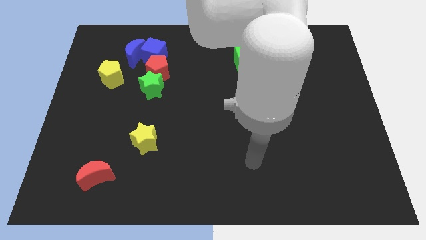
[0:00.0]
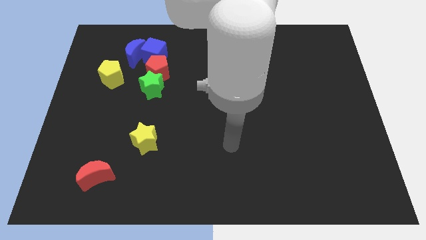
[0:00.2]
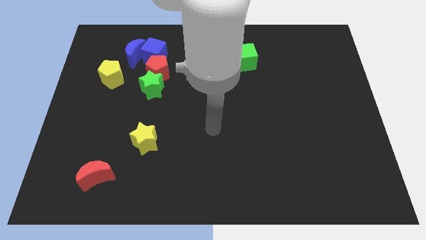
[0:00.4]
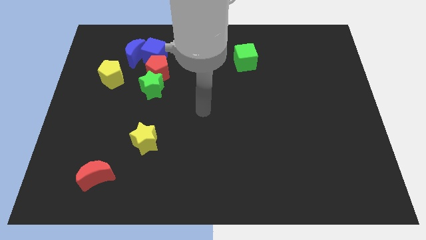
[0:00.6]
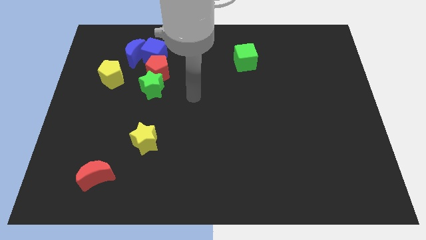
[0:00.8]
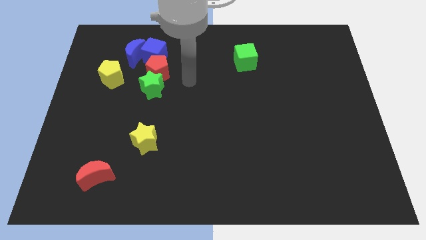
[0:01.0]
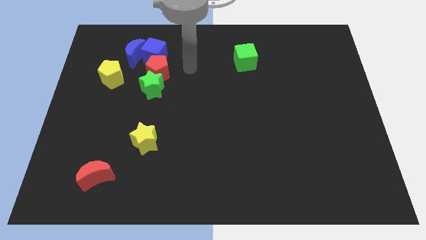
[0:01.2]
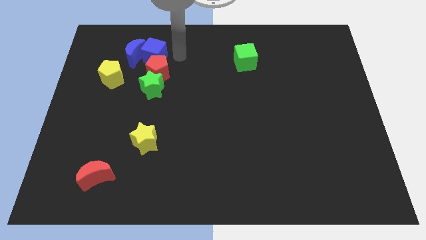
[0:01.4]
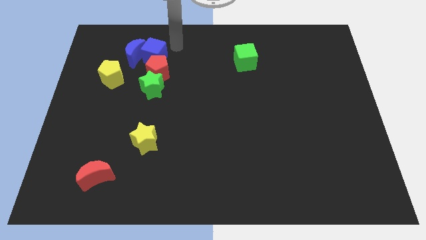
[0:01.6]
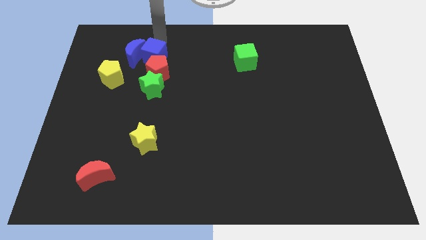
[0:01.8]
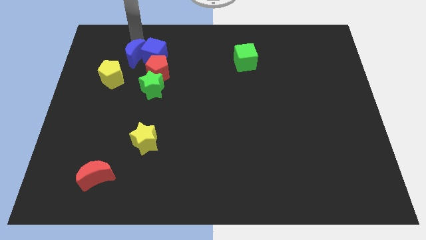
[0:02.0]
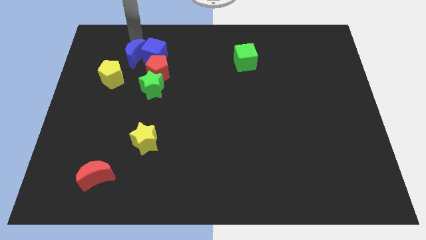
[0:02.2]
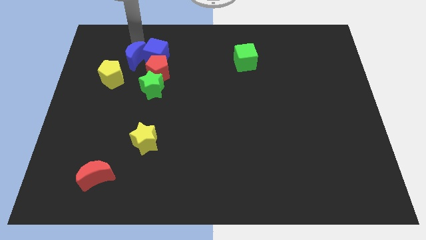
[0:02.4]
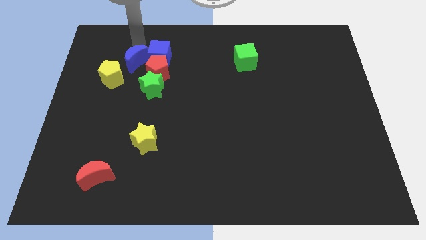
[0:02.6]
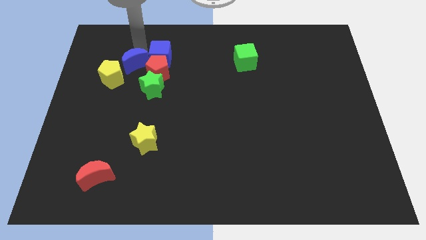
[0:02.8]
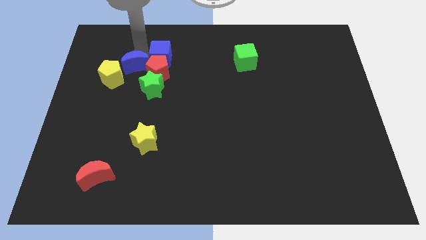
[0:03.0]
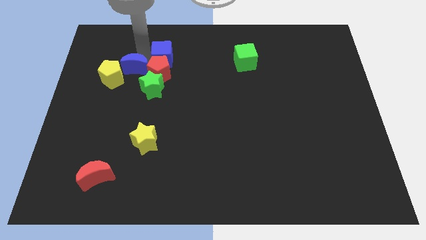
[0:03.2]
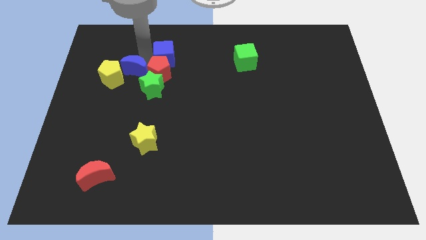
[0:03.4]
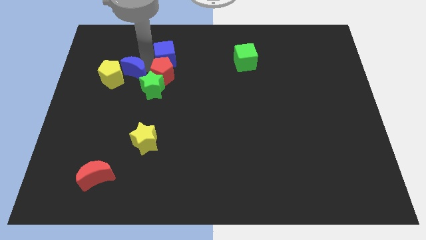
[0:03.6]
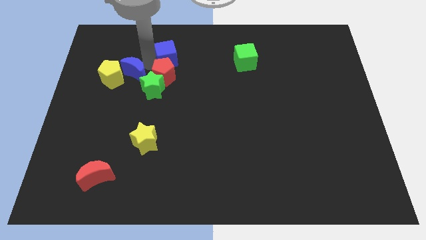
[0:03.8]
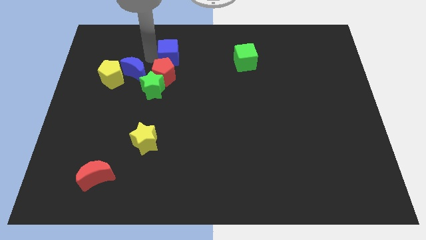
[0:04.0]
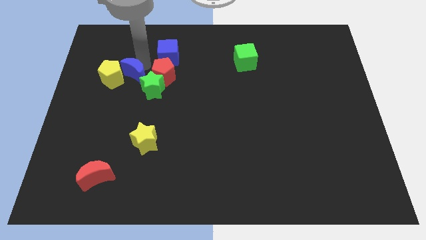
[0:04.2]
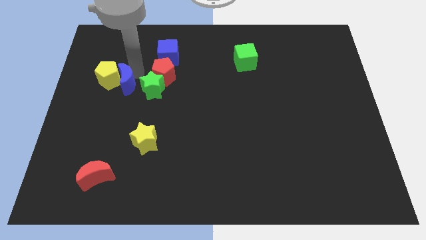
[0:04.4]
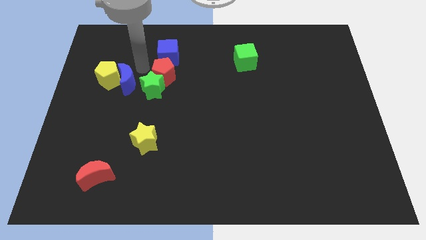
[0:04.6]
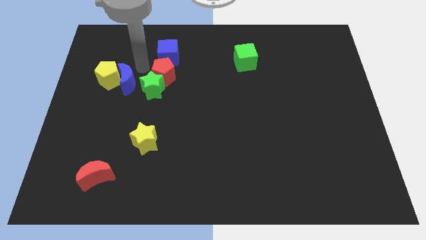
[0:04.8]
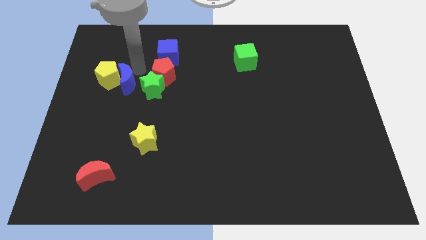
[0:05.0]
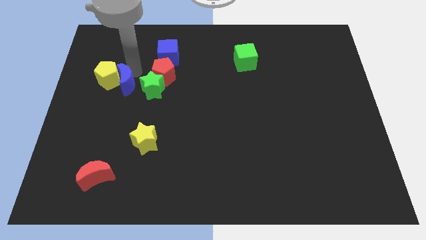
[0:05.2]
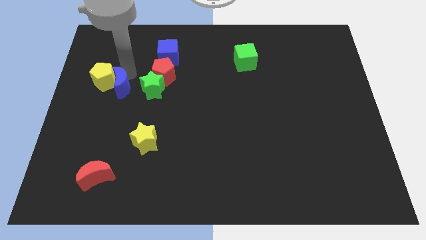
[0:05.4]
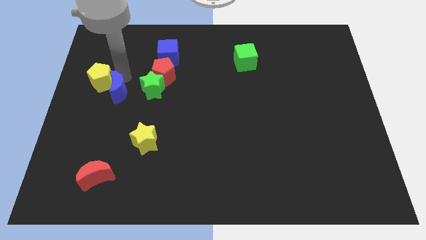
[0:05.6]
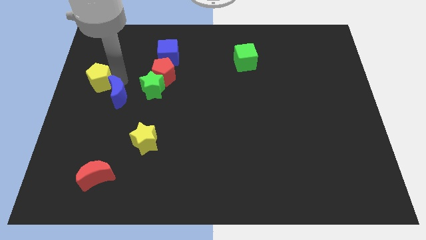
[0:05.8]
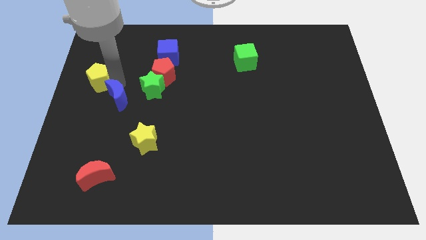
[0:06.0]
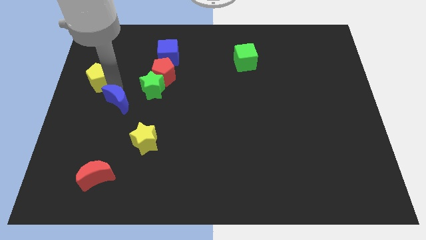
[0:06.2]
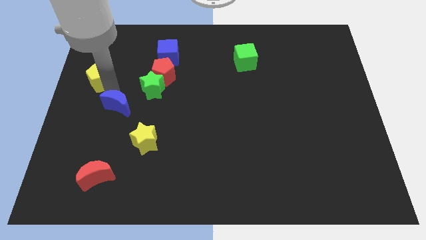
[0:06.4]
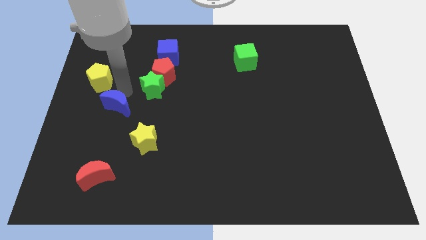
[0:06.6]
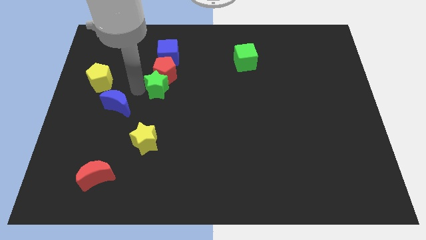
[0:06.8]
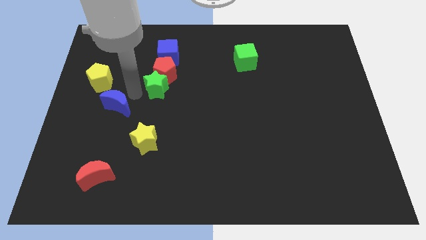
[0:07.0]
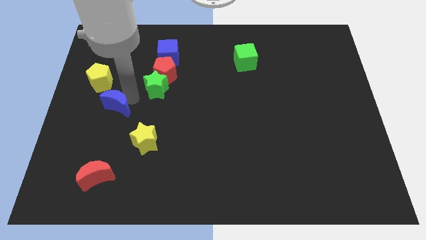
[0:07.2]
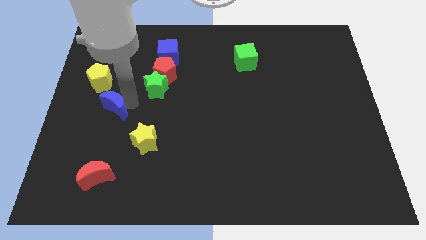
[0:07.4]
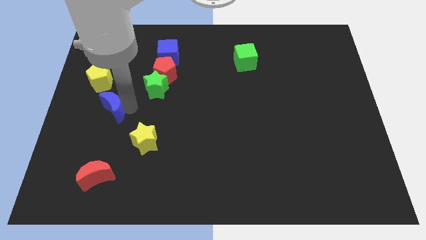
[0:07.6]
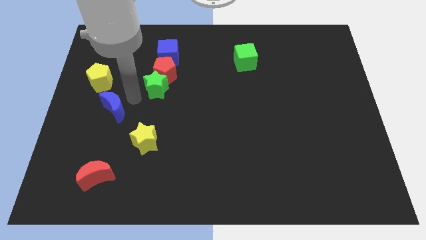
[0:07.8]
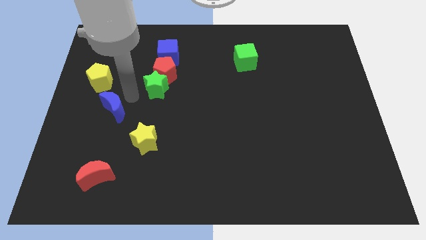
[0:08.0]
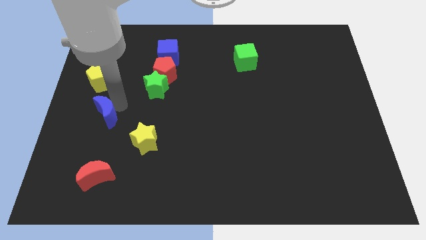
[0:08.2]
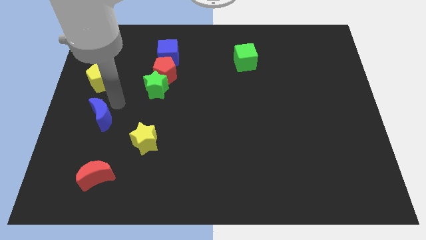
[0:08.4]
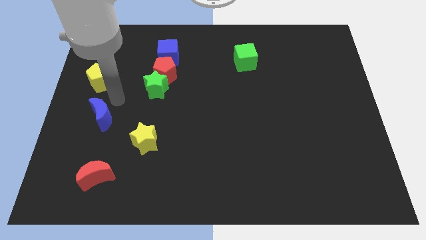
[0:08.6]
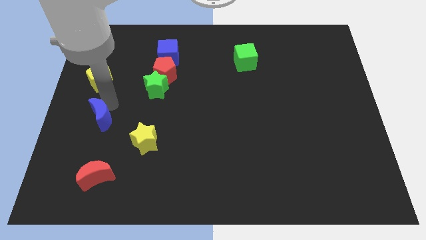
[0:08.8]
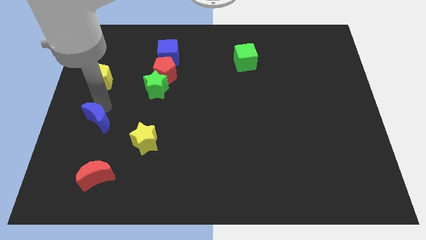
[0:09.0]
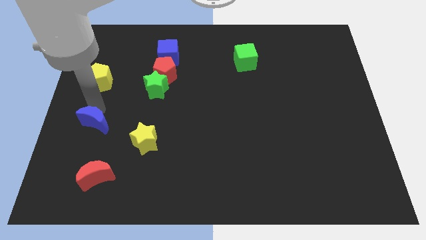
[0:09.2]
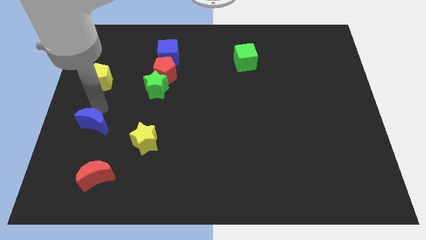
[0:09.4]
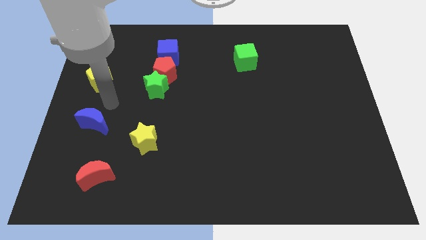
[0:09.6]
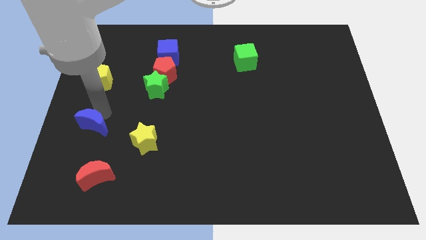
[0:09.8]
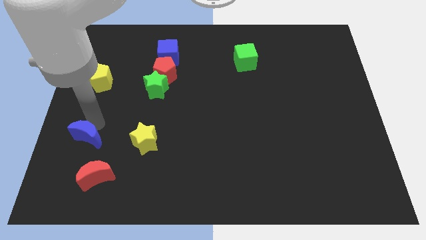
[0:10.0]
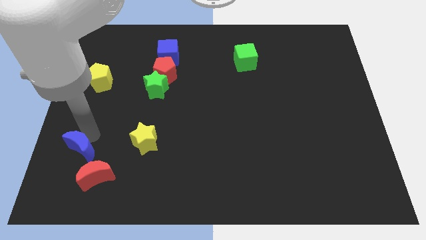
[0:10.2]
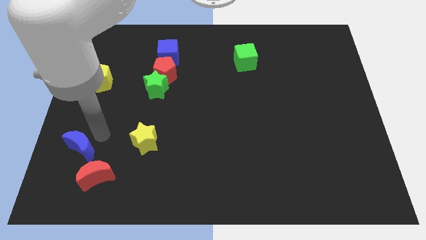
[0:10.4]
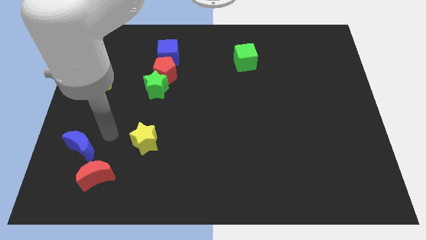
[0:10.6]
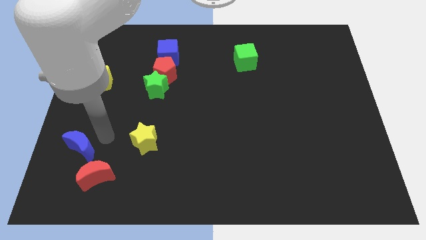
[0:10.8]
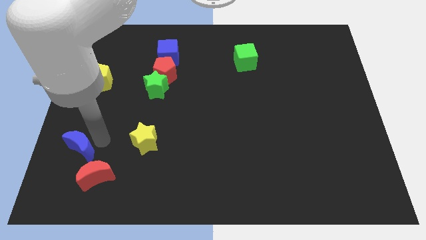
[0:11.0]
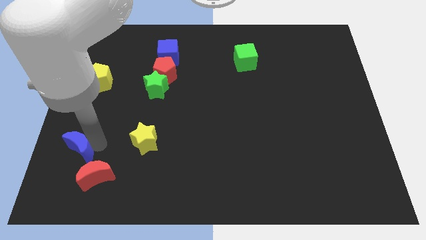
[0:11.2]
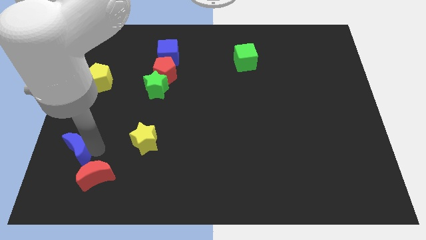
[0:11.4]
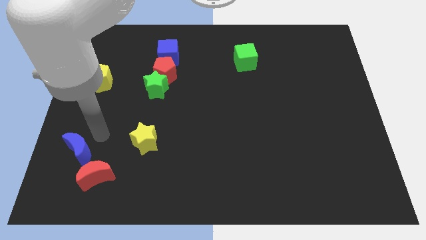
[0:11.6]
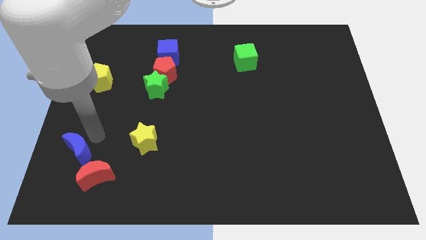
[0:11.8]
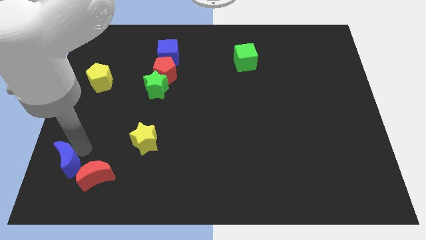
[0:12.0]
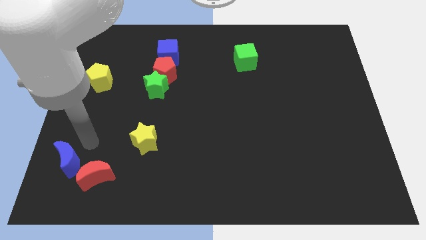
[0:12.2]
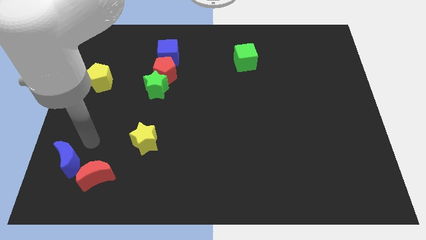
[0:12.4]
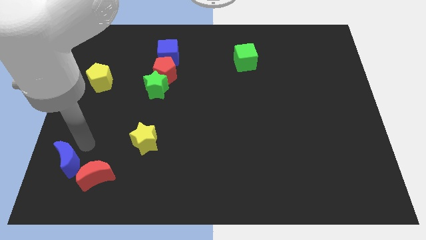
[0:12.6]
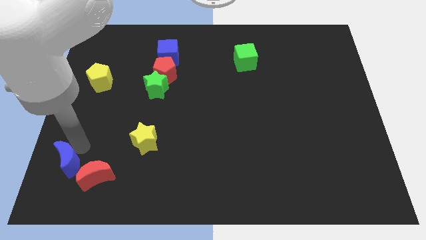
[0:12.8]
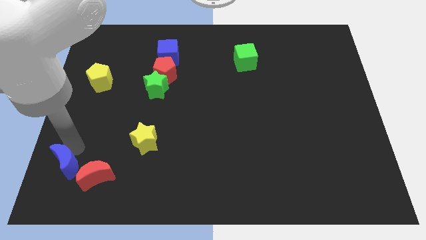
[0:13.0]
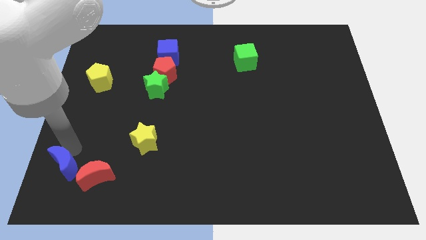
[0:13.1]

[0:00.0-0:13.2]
put the blue moon to the bottom left
